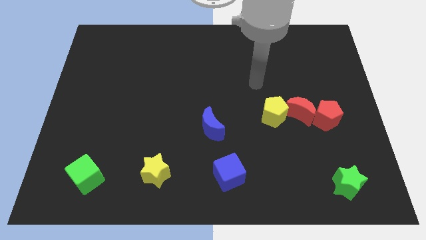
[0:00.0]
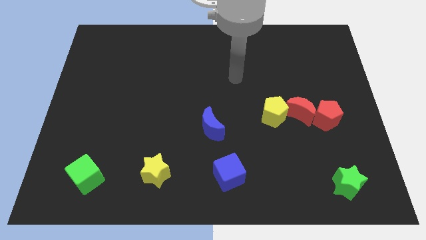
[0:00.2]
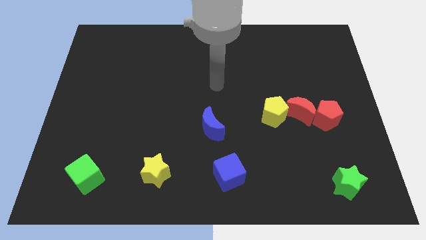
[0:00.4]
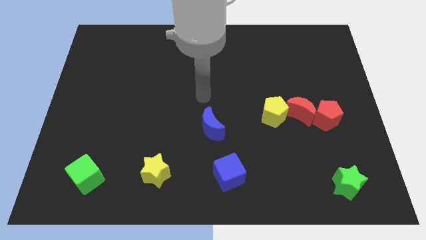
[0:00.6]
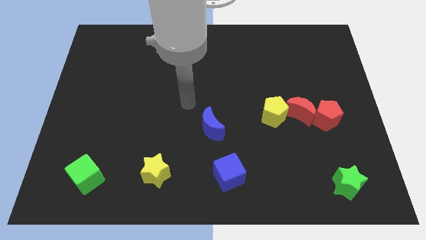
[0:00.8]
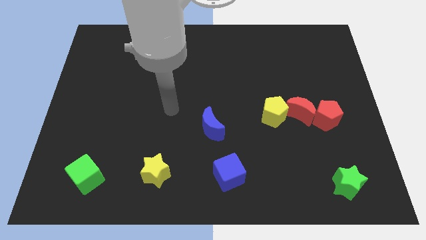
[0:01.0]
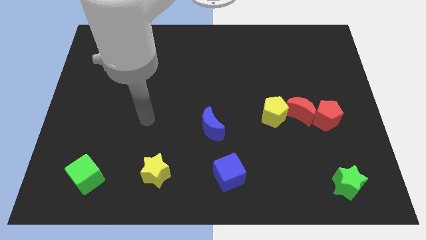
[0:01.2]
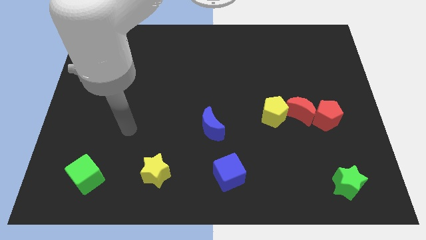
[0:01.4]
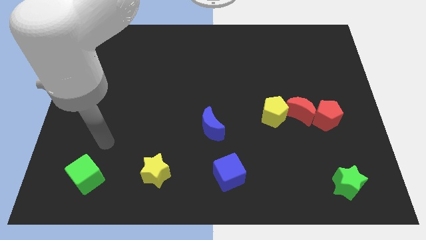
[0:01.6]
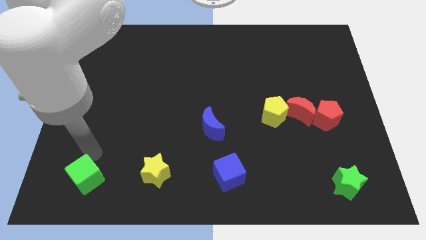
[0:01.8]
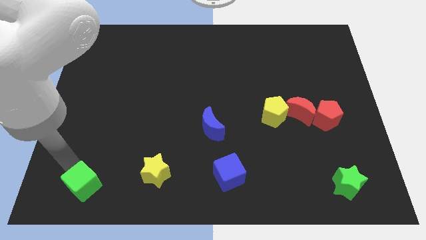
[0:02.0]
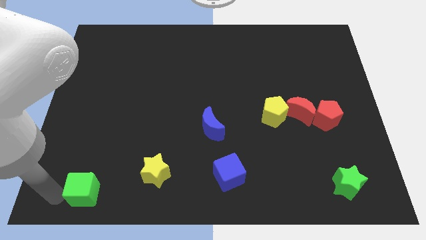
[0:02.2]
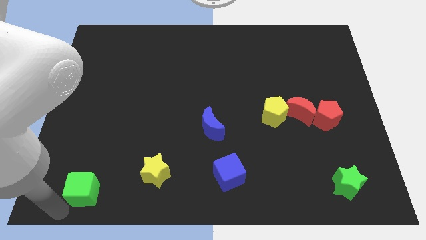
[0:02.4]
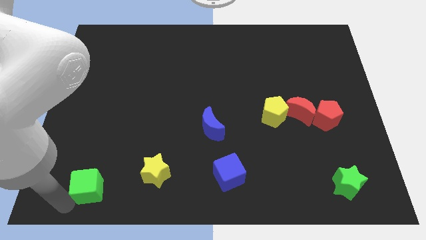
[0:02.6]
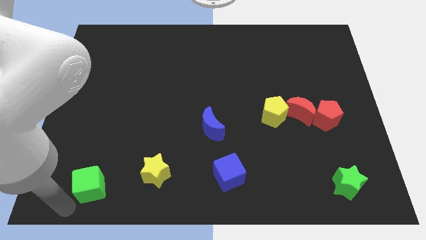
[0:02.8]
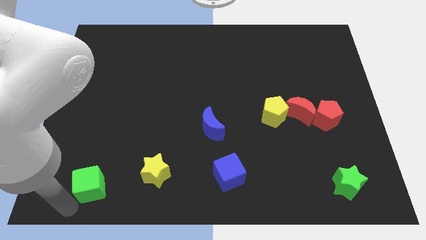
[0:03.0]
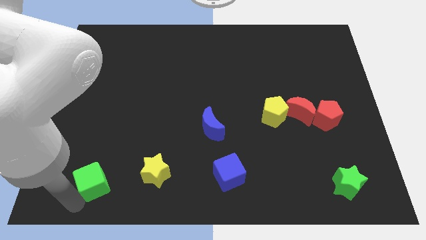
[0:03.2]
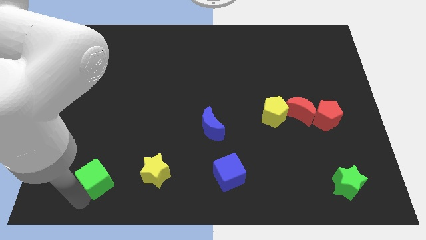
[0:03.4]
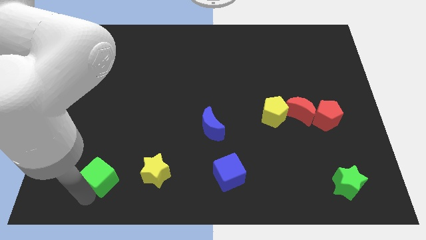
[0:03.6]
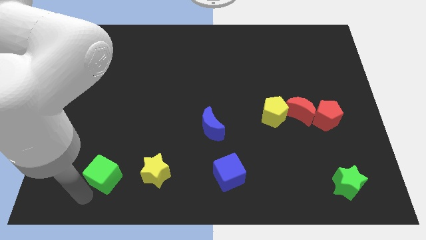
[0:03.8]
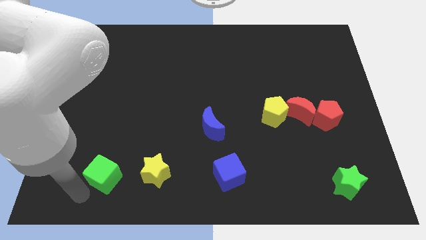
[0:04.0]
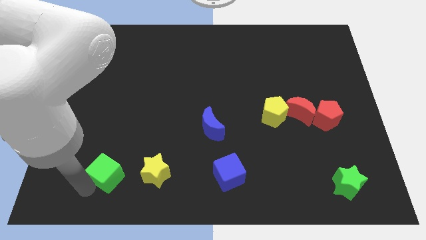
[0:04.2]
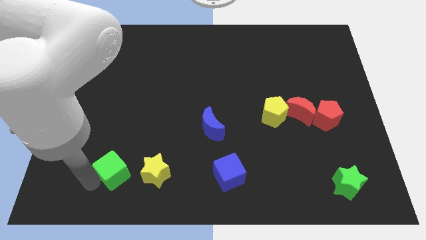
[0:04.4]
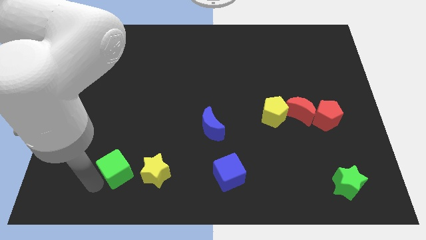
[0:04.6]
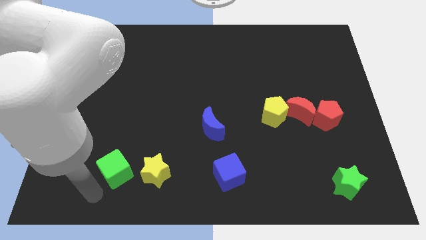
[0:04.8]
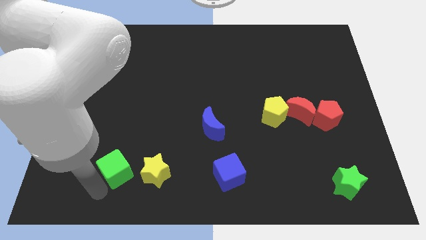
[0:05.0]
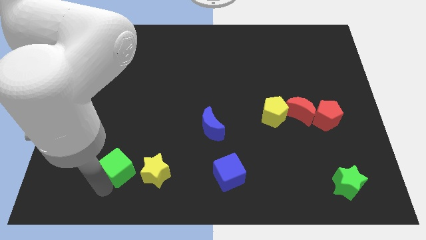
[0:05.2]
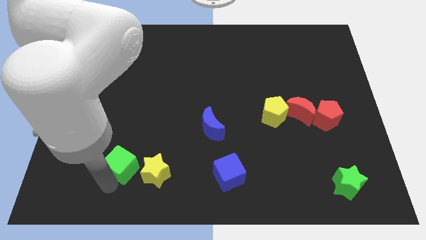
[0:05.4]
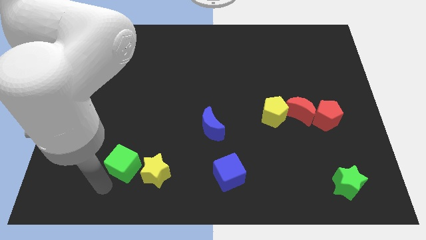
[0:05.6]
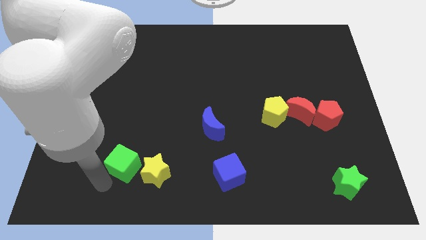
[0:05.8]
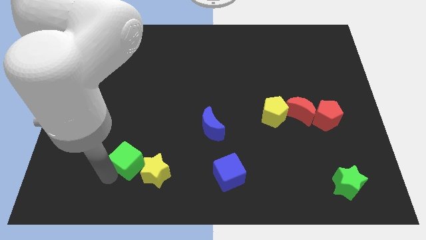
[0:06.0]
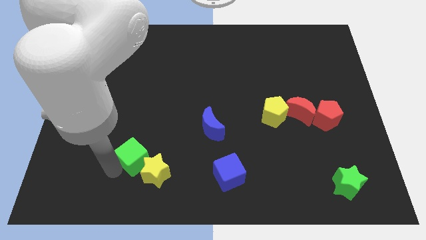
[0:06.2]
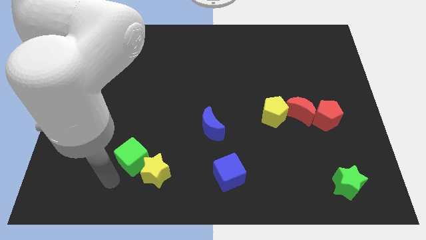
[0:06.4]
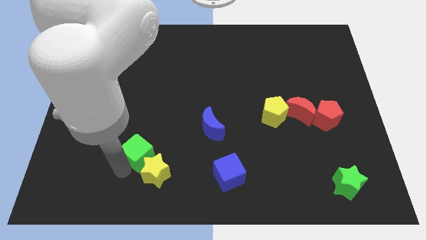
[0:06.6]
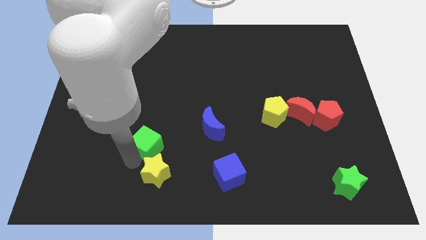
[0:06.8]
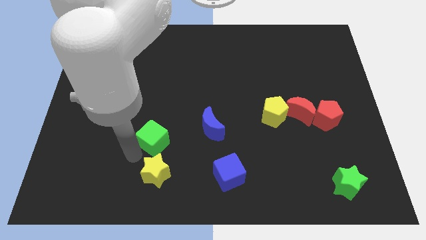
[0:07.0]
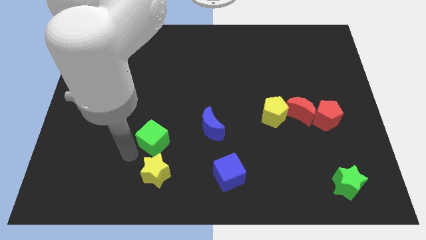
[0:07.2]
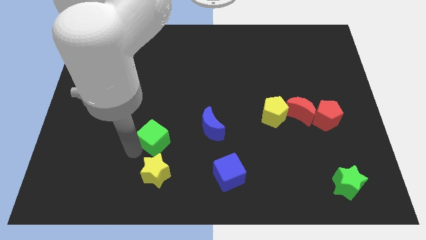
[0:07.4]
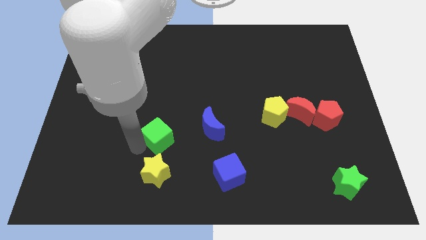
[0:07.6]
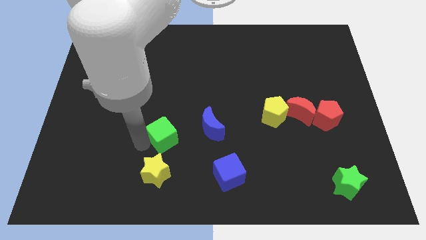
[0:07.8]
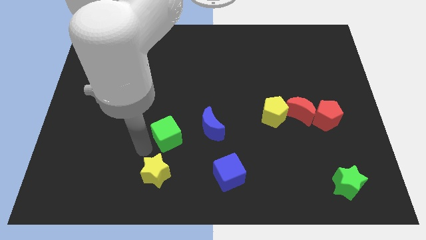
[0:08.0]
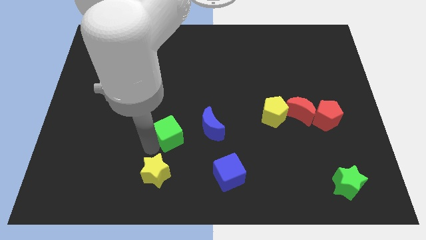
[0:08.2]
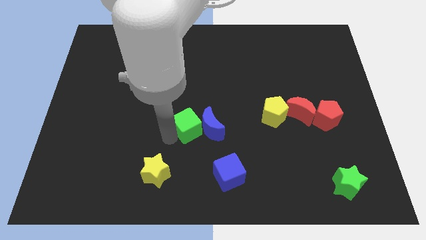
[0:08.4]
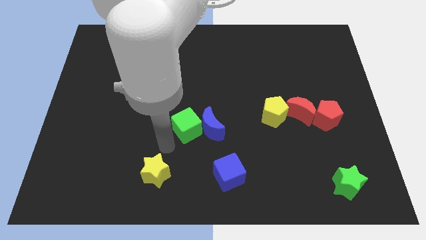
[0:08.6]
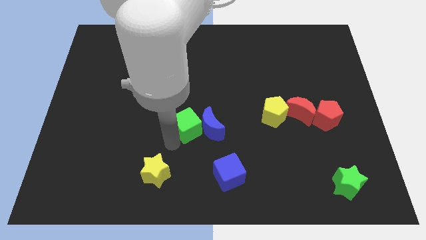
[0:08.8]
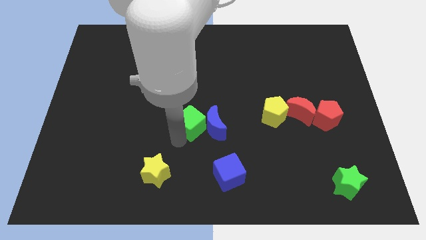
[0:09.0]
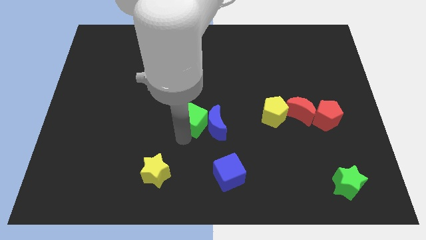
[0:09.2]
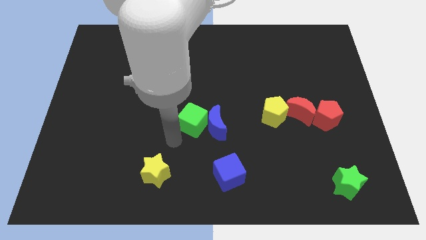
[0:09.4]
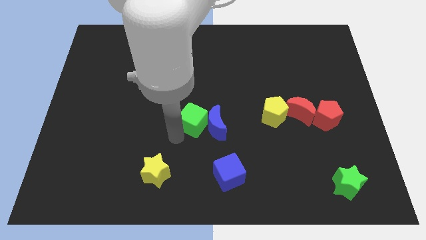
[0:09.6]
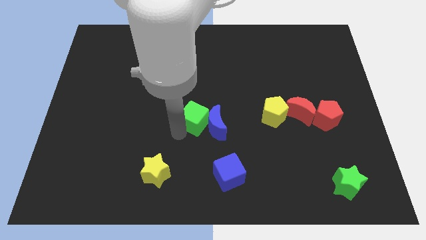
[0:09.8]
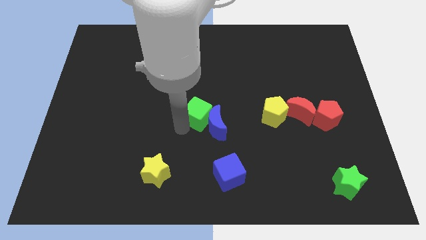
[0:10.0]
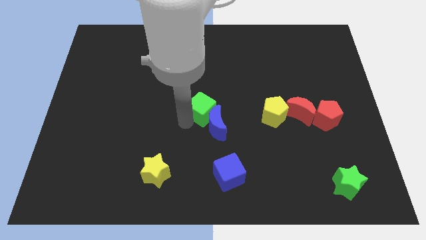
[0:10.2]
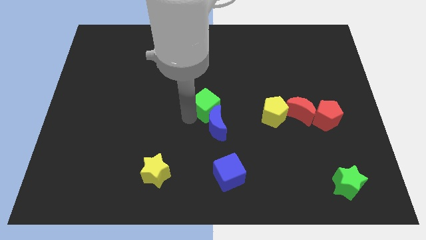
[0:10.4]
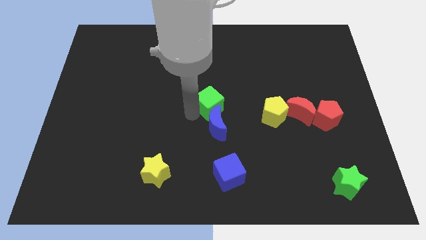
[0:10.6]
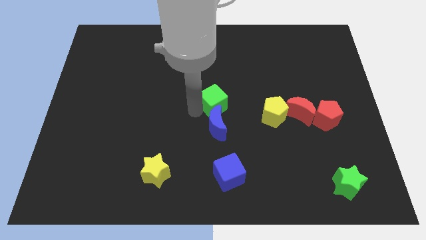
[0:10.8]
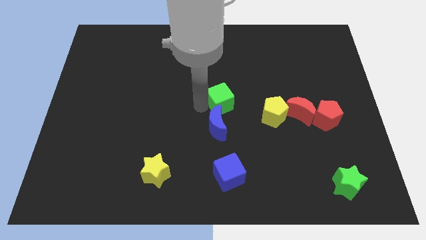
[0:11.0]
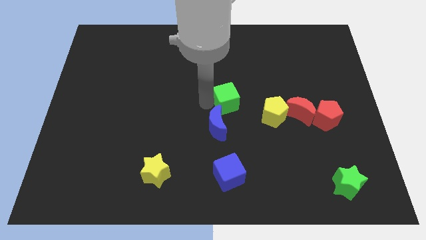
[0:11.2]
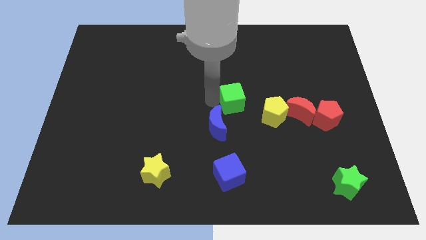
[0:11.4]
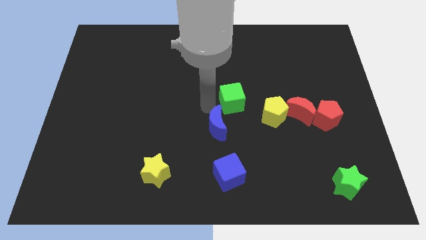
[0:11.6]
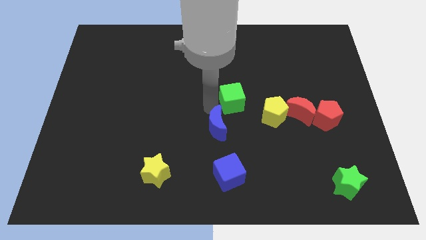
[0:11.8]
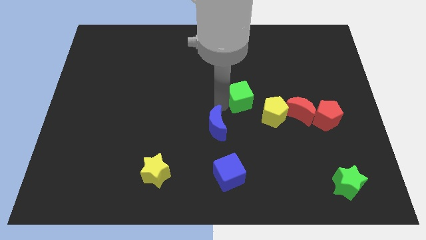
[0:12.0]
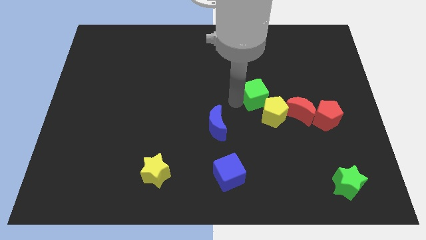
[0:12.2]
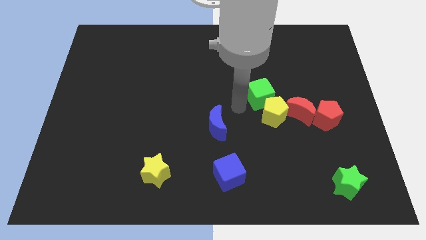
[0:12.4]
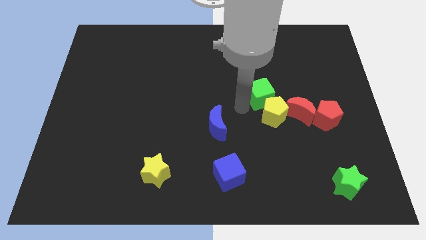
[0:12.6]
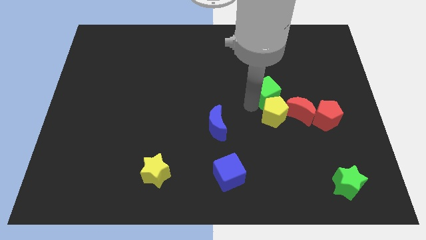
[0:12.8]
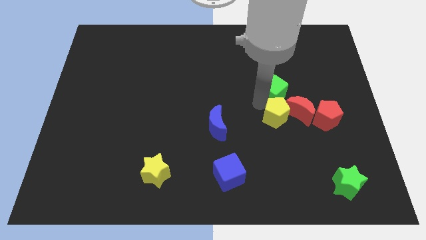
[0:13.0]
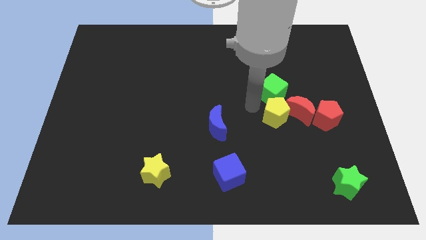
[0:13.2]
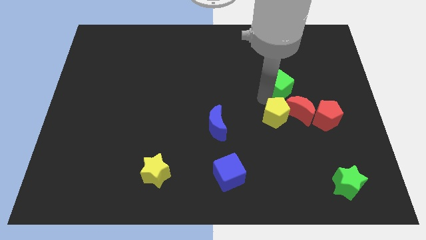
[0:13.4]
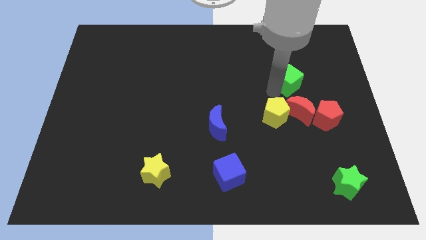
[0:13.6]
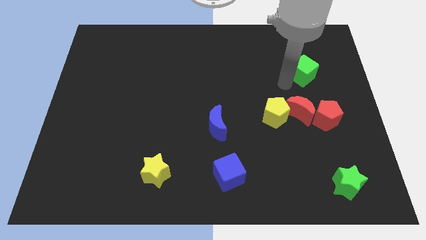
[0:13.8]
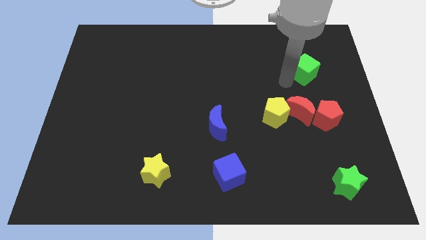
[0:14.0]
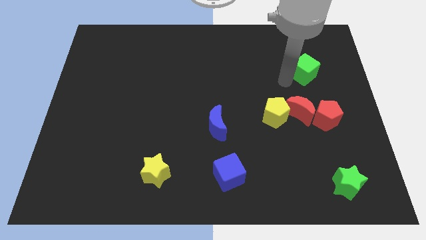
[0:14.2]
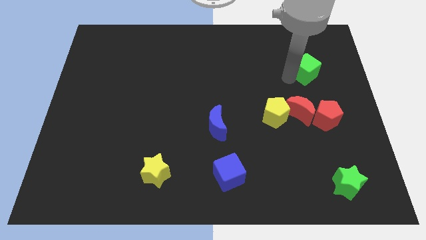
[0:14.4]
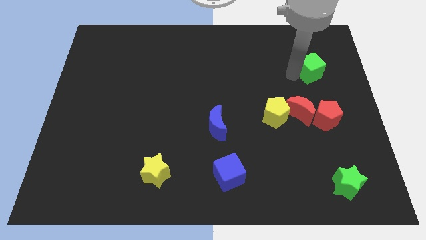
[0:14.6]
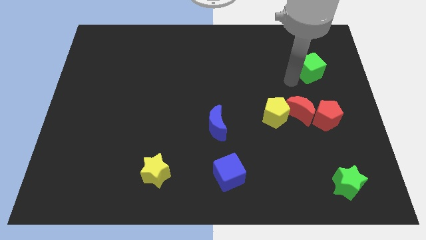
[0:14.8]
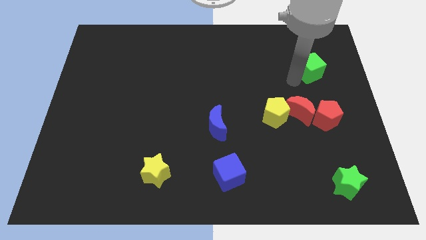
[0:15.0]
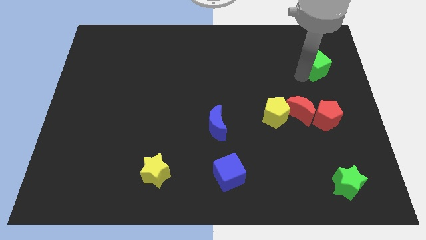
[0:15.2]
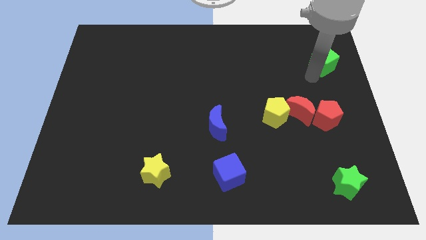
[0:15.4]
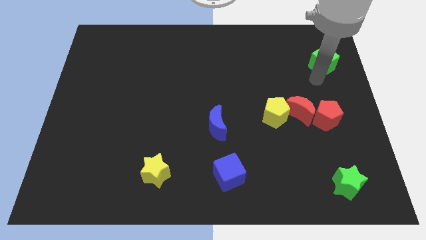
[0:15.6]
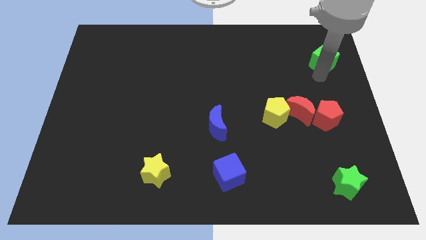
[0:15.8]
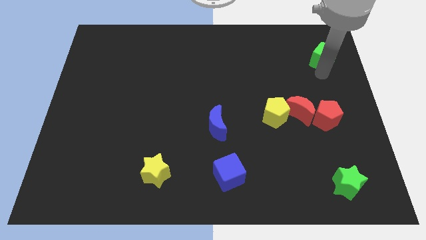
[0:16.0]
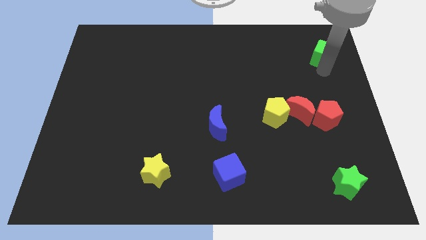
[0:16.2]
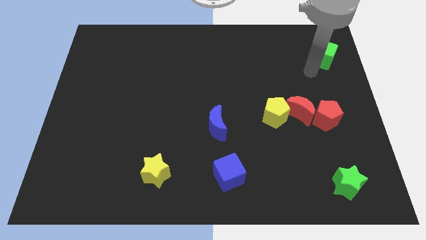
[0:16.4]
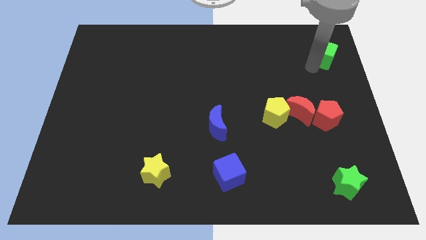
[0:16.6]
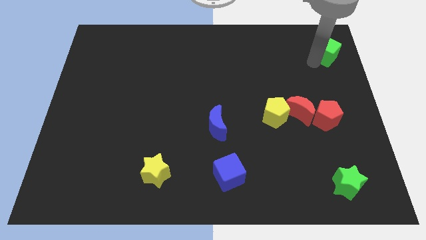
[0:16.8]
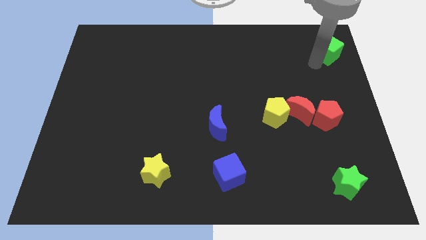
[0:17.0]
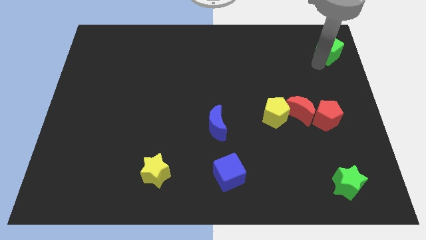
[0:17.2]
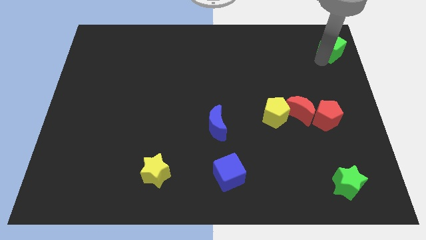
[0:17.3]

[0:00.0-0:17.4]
slide the green cube to the top right corner
